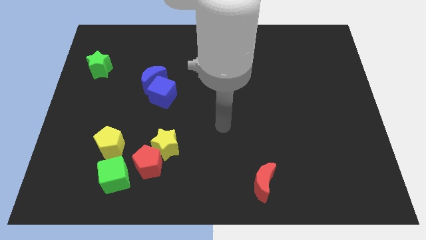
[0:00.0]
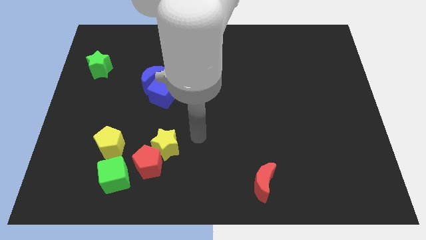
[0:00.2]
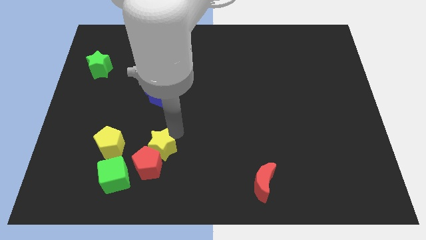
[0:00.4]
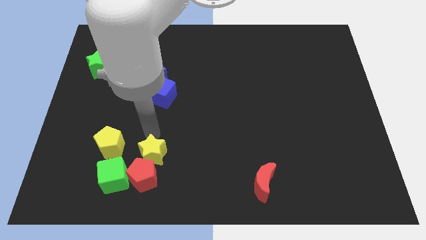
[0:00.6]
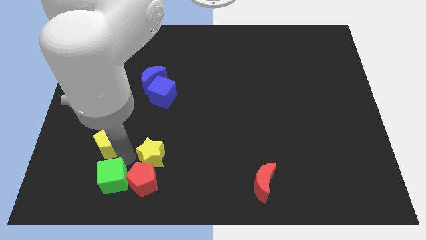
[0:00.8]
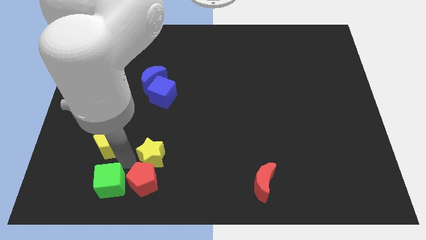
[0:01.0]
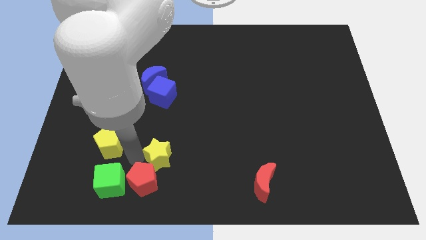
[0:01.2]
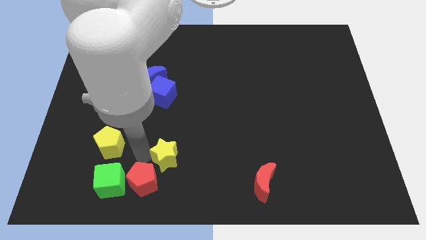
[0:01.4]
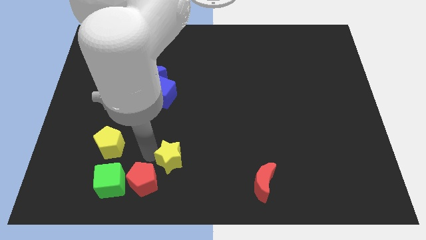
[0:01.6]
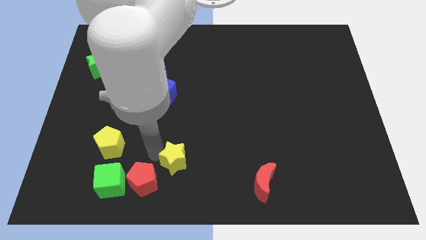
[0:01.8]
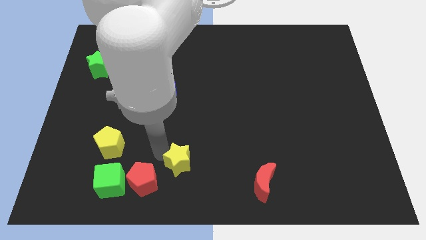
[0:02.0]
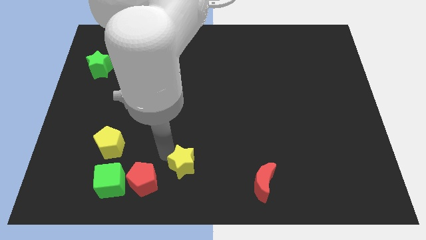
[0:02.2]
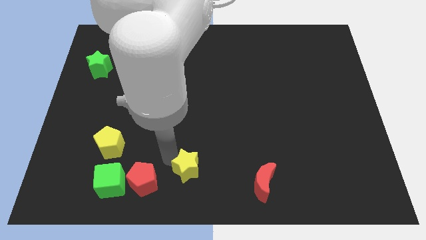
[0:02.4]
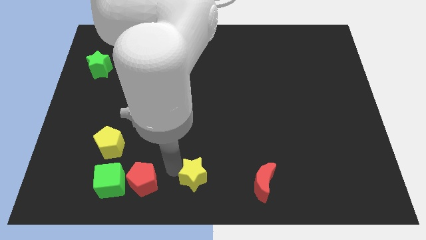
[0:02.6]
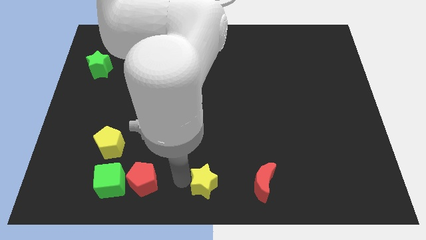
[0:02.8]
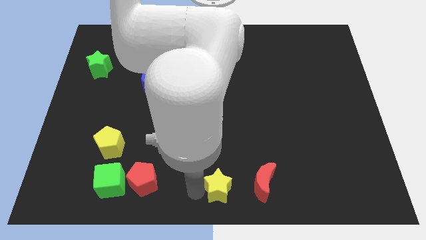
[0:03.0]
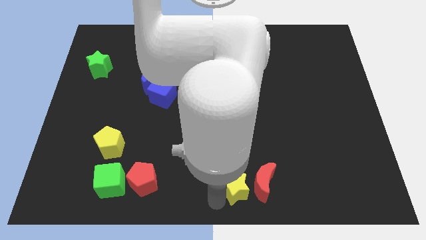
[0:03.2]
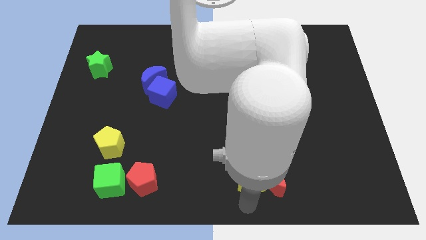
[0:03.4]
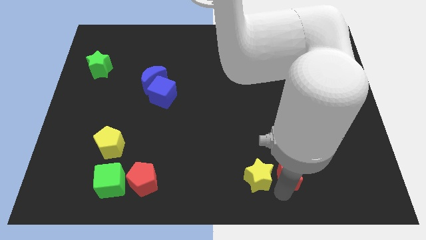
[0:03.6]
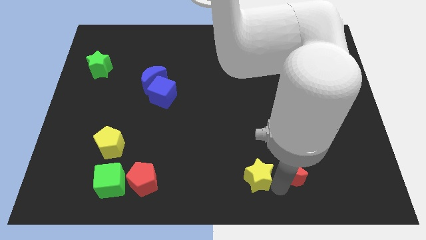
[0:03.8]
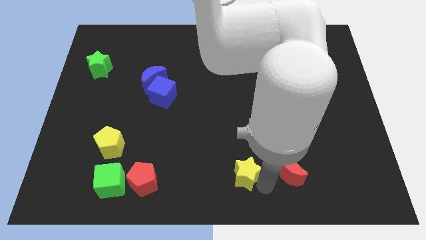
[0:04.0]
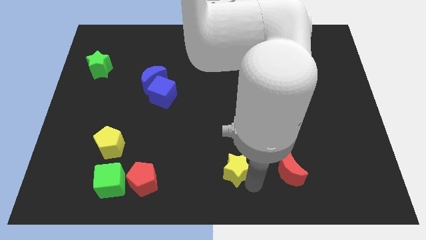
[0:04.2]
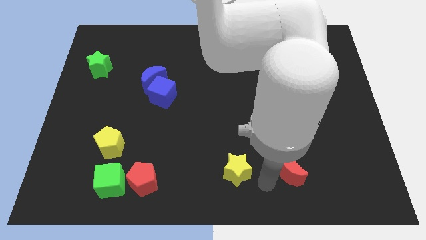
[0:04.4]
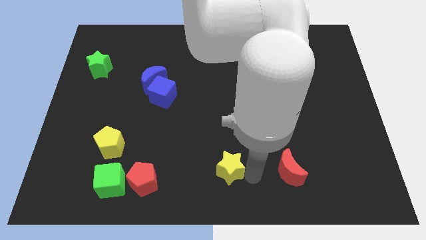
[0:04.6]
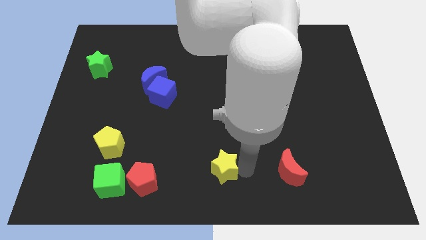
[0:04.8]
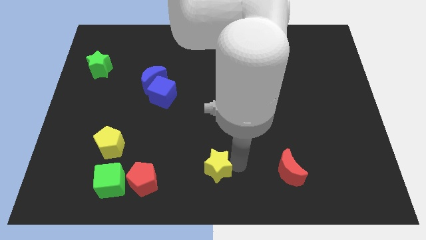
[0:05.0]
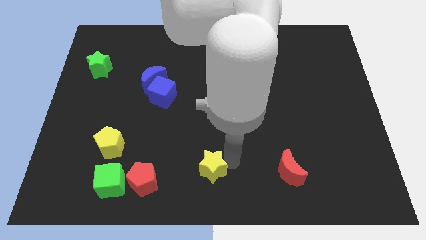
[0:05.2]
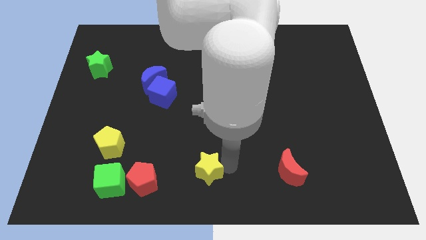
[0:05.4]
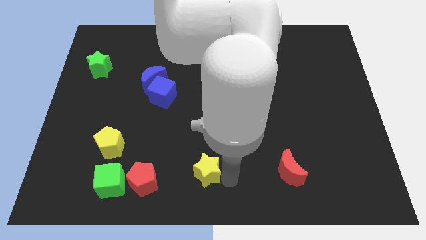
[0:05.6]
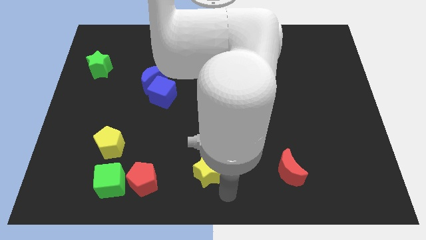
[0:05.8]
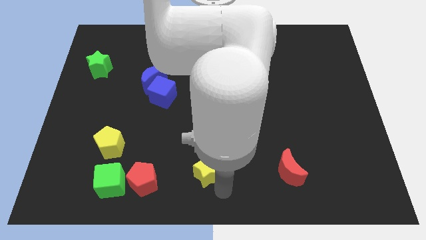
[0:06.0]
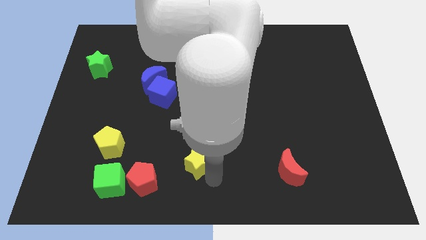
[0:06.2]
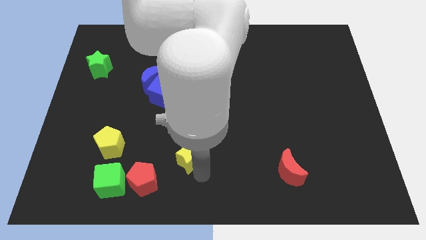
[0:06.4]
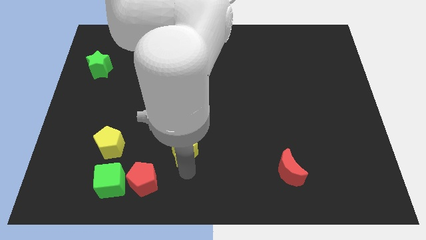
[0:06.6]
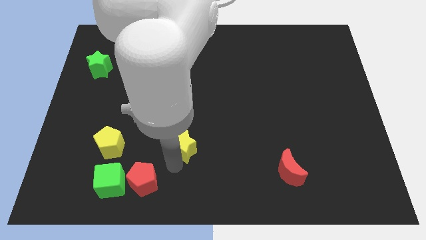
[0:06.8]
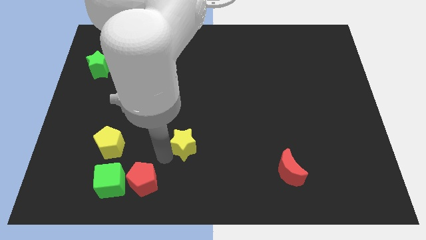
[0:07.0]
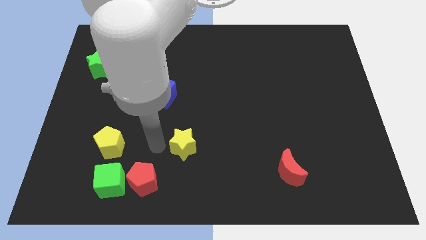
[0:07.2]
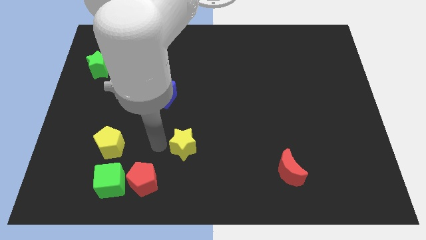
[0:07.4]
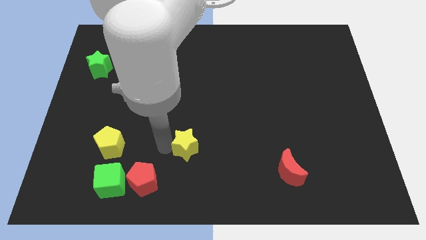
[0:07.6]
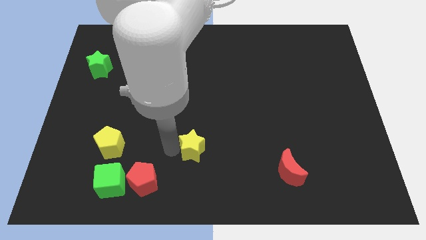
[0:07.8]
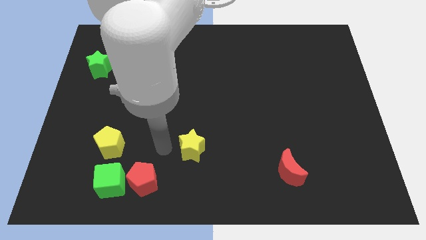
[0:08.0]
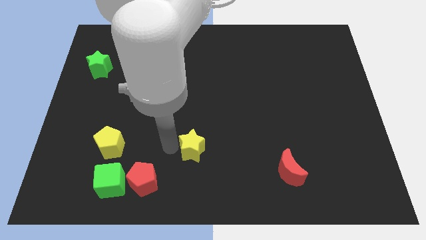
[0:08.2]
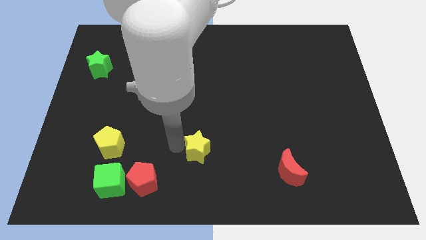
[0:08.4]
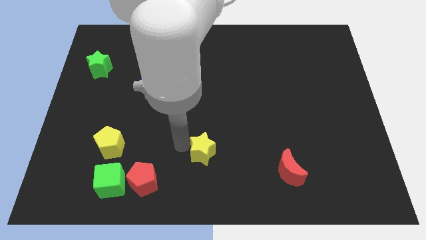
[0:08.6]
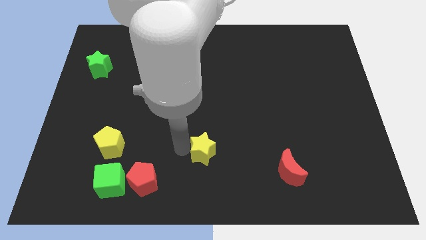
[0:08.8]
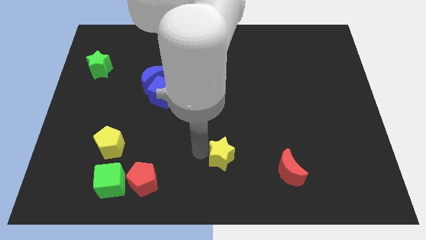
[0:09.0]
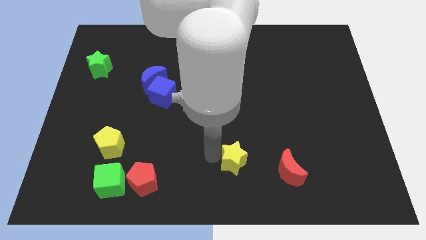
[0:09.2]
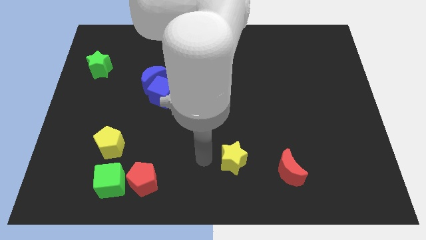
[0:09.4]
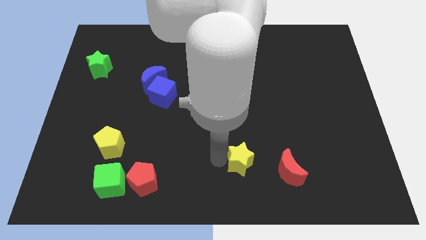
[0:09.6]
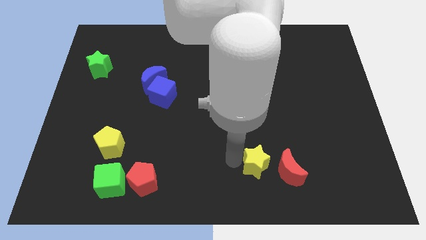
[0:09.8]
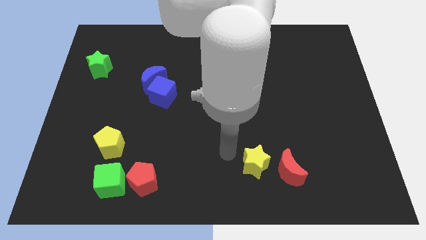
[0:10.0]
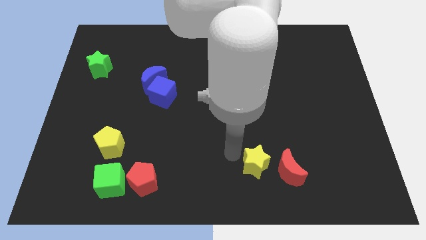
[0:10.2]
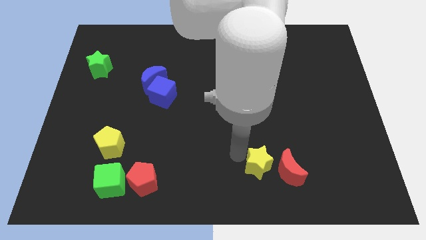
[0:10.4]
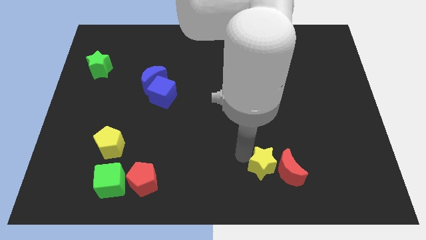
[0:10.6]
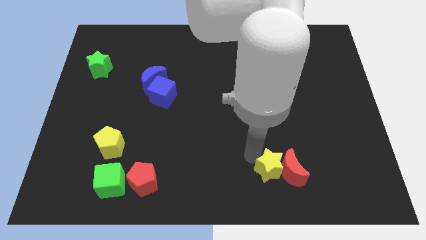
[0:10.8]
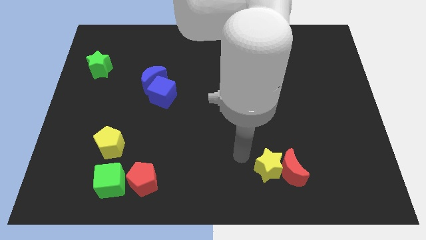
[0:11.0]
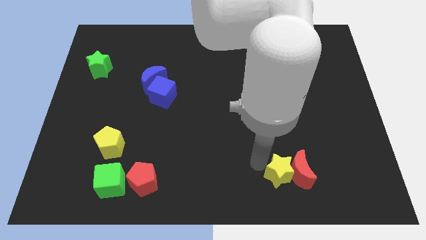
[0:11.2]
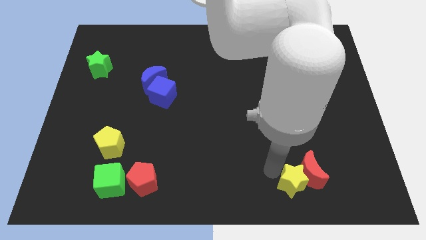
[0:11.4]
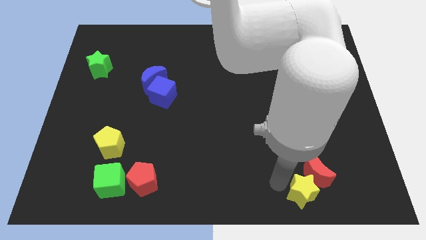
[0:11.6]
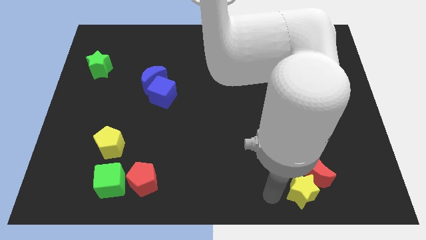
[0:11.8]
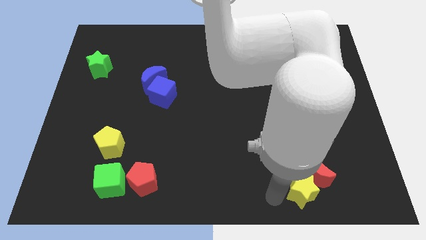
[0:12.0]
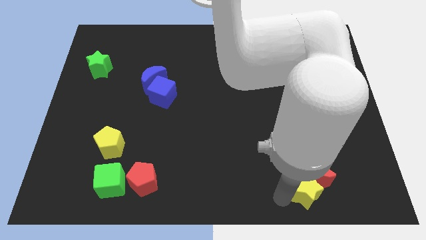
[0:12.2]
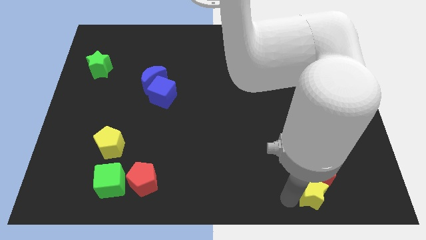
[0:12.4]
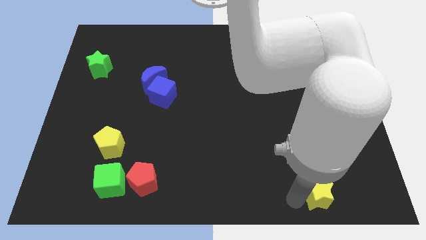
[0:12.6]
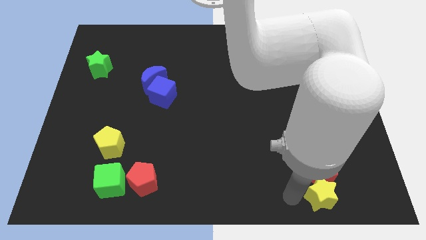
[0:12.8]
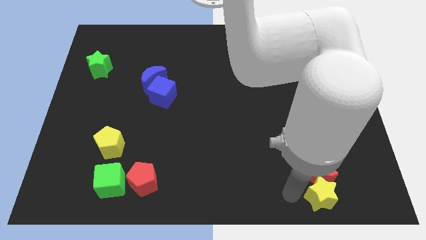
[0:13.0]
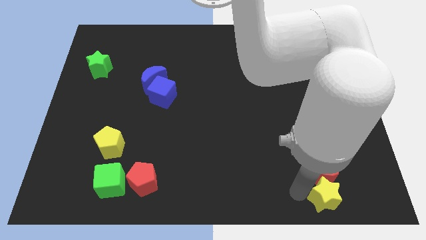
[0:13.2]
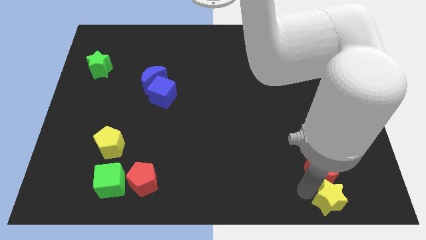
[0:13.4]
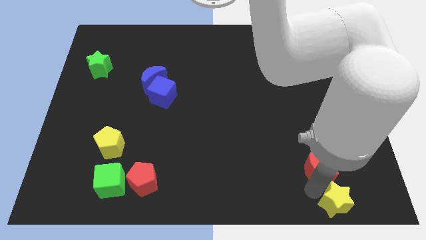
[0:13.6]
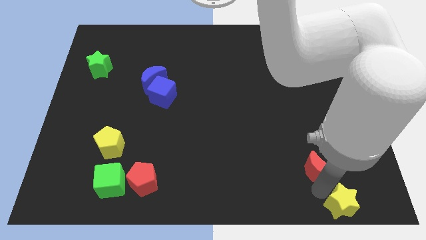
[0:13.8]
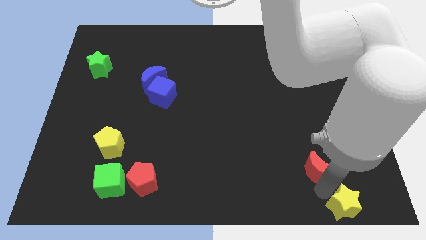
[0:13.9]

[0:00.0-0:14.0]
move the yellow star to the bottom right corner
